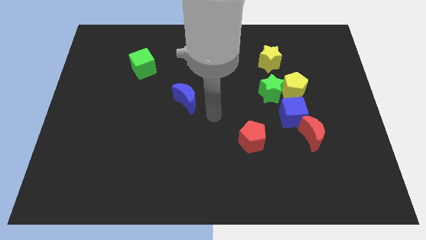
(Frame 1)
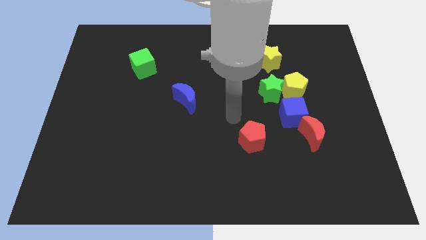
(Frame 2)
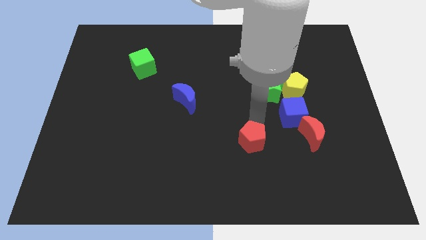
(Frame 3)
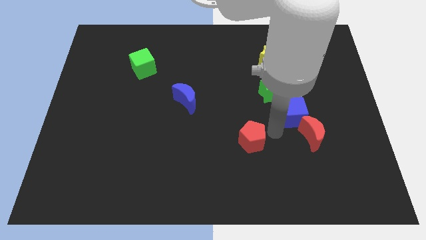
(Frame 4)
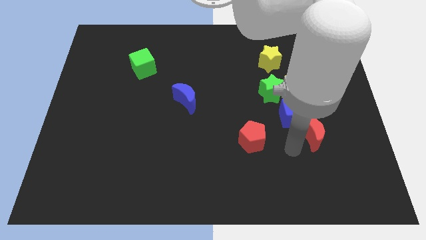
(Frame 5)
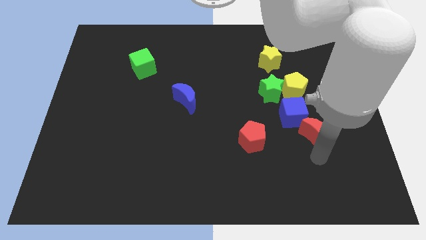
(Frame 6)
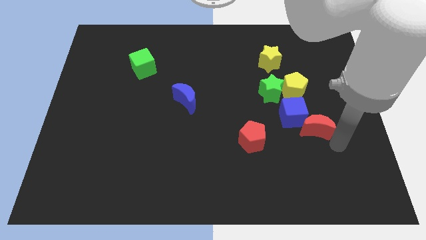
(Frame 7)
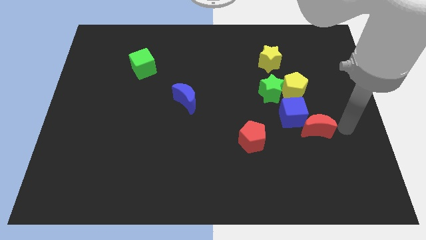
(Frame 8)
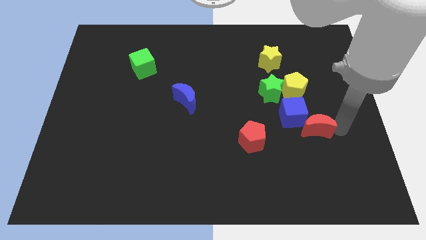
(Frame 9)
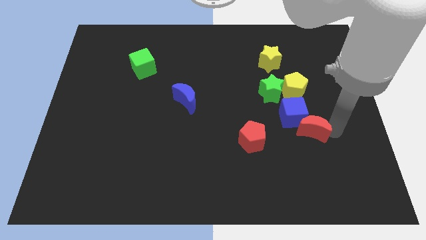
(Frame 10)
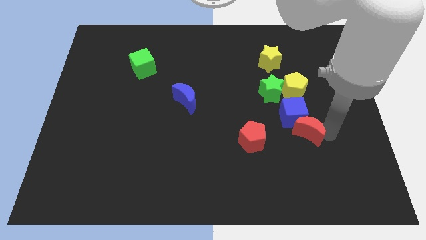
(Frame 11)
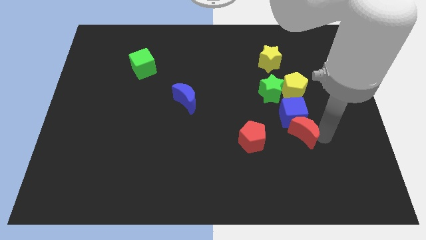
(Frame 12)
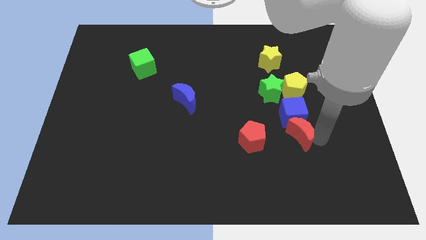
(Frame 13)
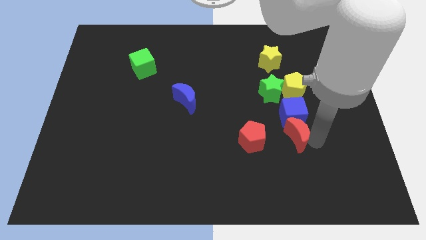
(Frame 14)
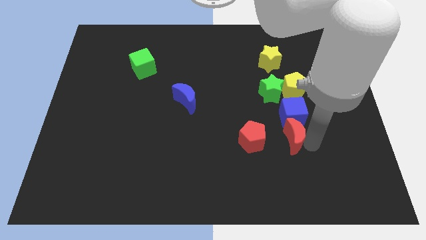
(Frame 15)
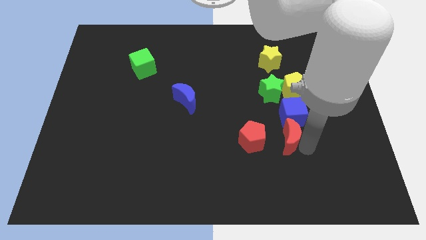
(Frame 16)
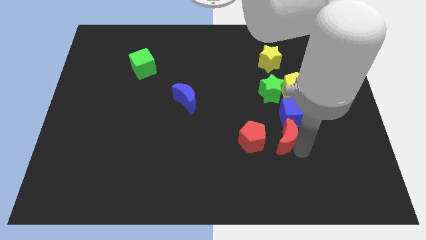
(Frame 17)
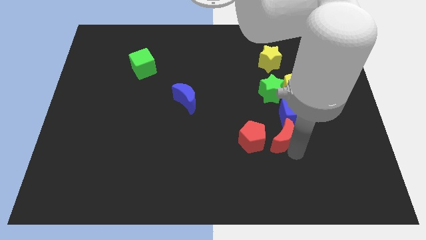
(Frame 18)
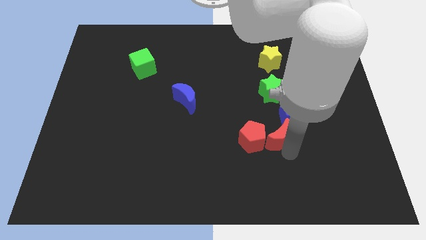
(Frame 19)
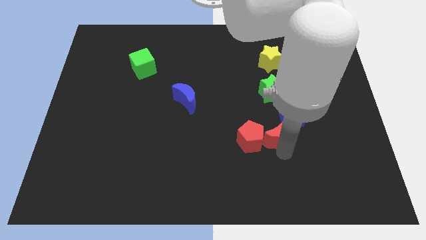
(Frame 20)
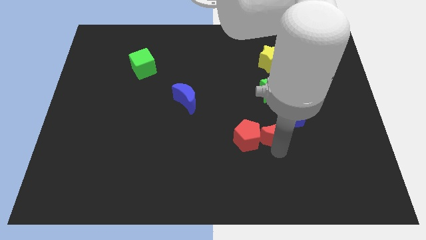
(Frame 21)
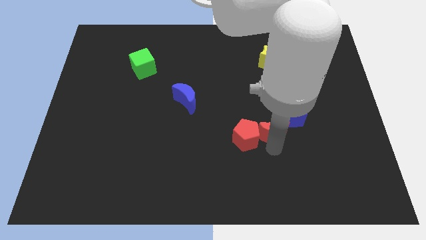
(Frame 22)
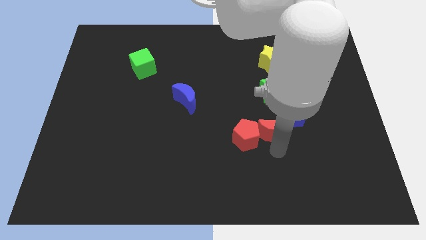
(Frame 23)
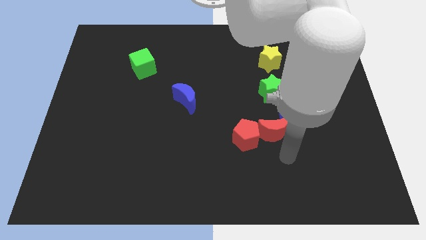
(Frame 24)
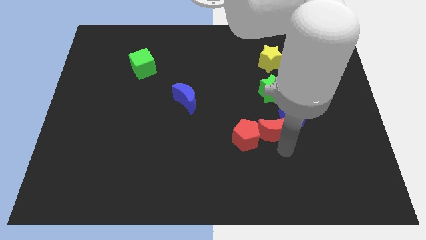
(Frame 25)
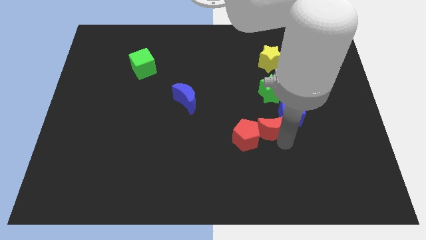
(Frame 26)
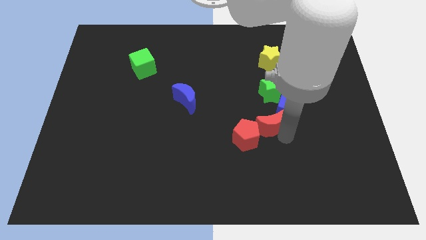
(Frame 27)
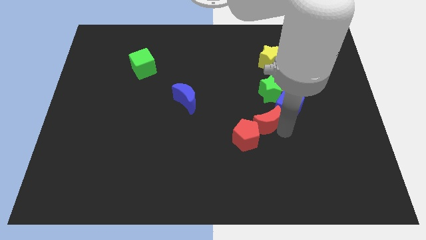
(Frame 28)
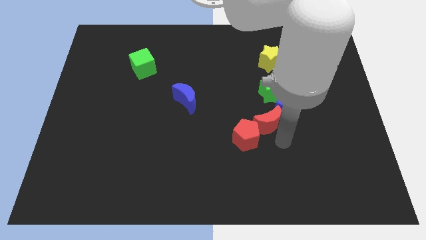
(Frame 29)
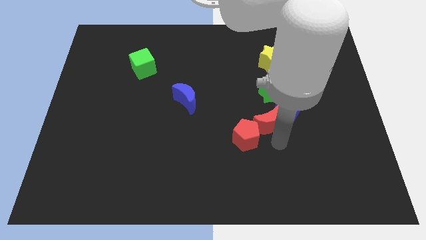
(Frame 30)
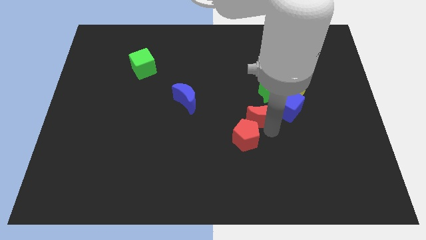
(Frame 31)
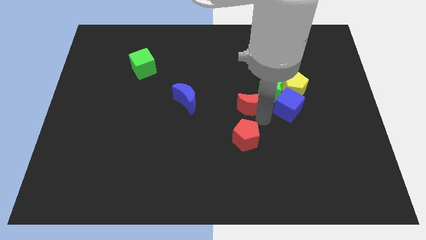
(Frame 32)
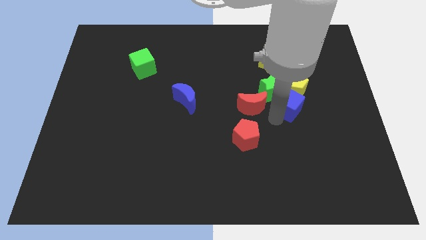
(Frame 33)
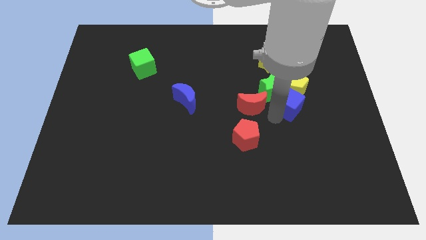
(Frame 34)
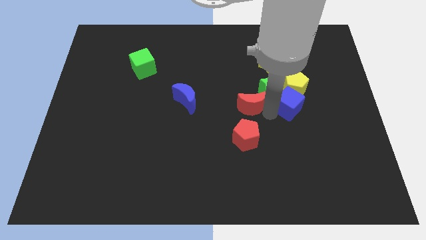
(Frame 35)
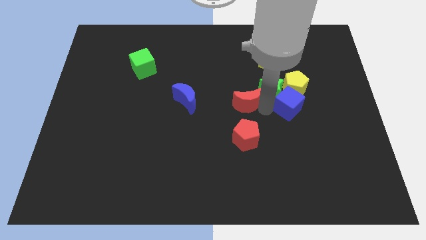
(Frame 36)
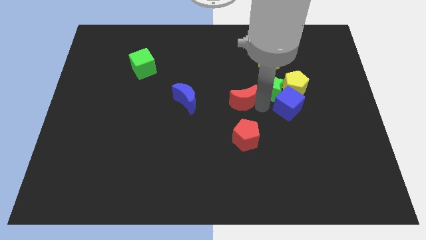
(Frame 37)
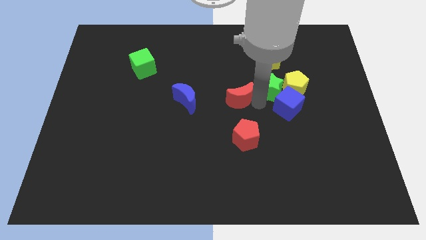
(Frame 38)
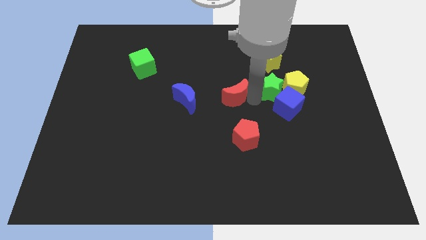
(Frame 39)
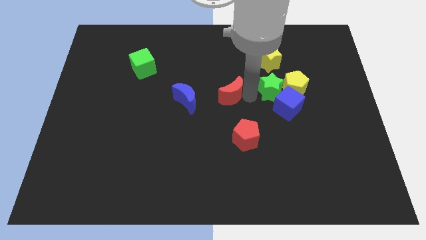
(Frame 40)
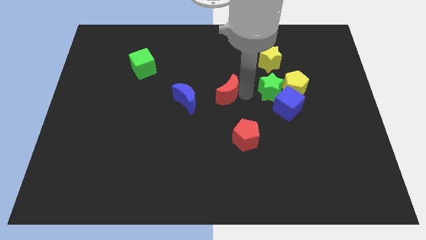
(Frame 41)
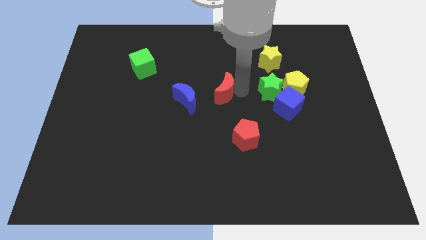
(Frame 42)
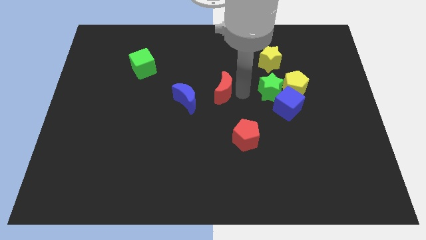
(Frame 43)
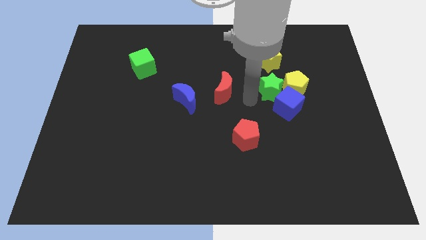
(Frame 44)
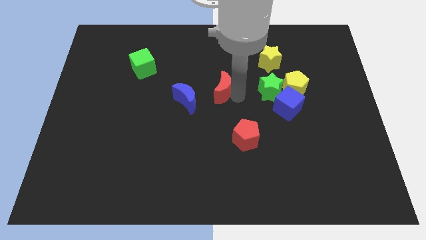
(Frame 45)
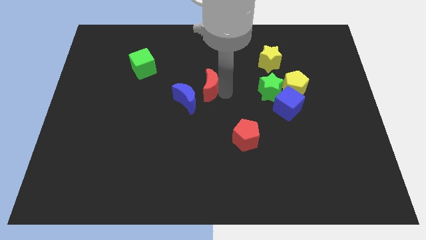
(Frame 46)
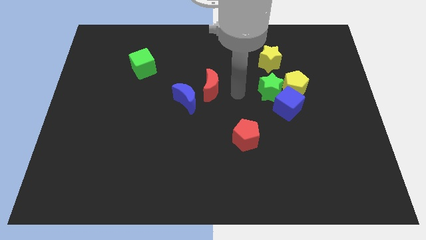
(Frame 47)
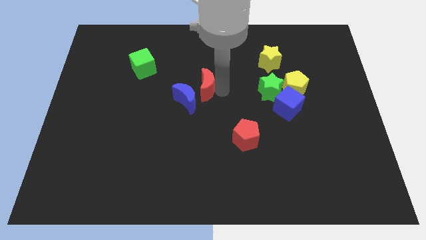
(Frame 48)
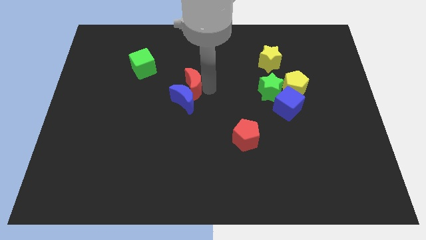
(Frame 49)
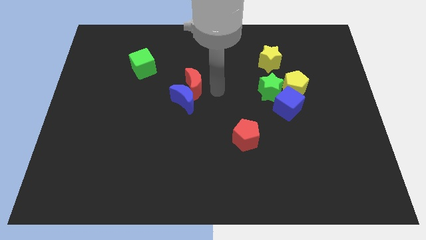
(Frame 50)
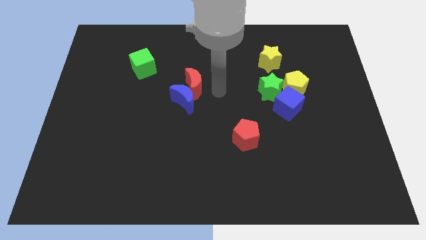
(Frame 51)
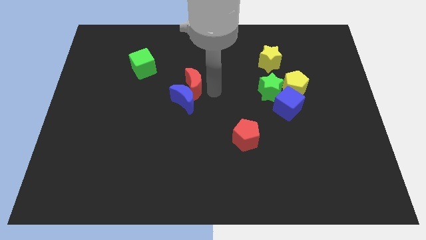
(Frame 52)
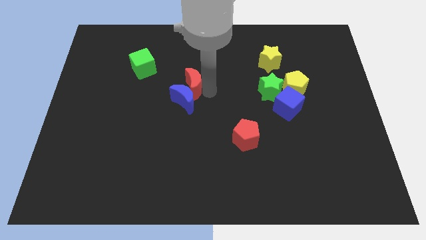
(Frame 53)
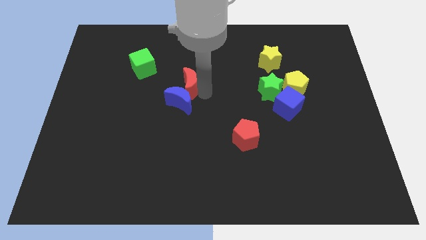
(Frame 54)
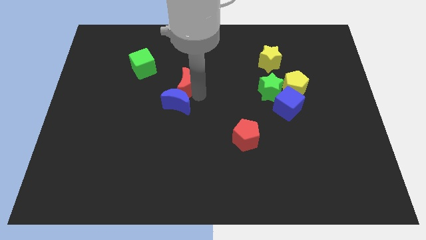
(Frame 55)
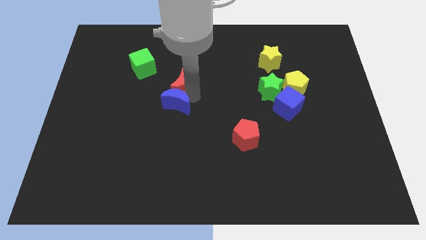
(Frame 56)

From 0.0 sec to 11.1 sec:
move the red moon to the bottom right of the green cube

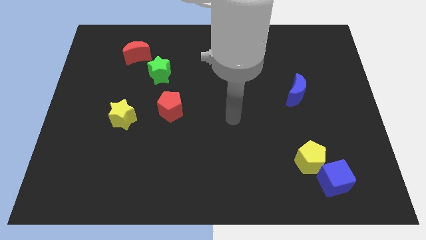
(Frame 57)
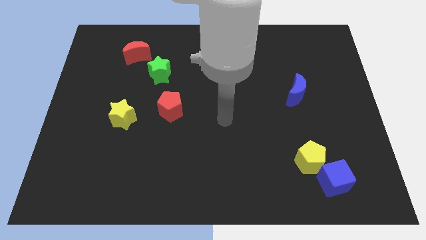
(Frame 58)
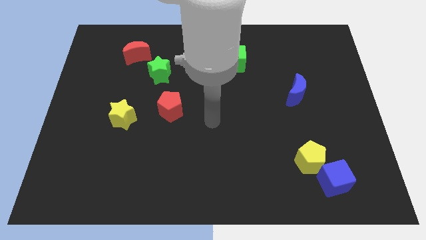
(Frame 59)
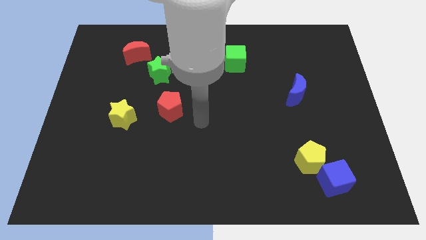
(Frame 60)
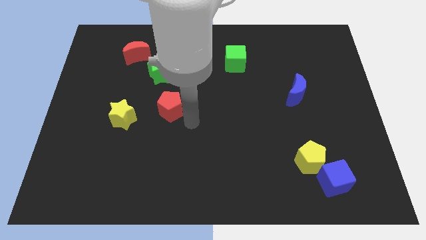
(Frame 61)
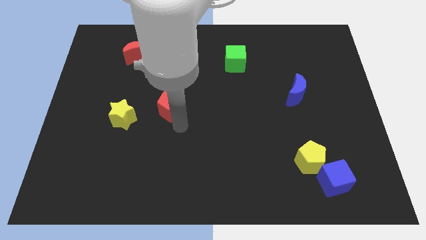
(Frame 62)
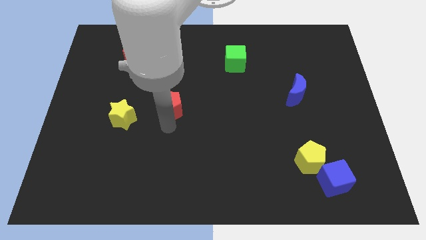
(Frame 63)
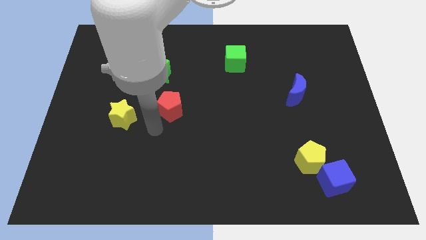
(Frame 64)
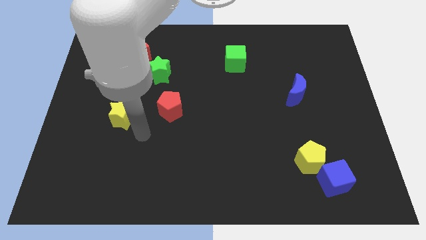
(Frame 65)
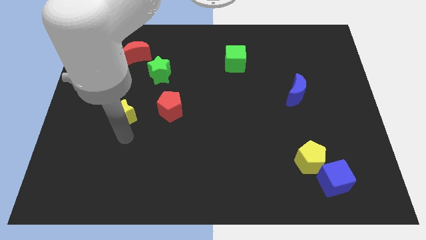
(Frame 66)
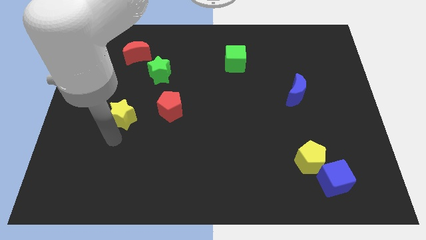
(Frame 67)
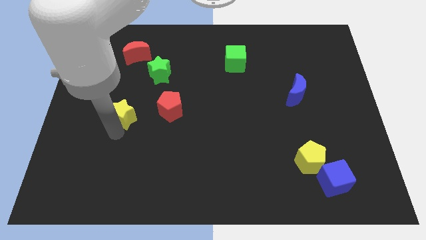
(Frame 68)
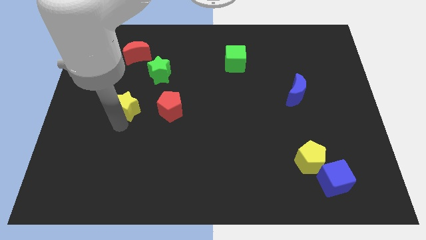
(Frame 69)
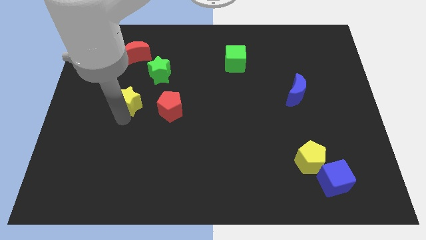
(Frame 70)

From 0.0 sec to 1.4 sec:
move the yellow star to the bottom left side of the green star
